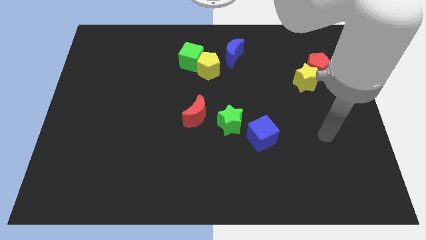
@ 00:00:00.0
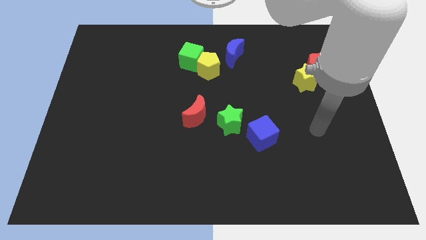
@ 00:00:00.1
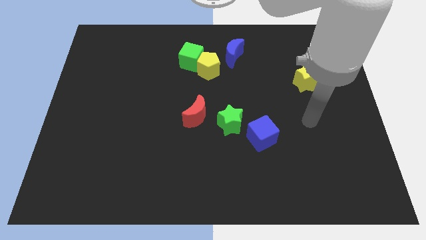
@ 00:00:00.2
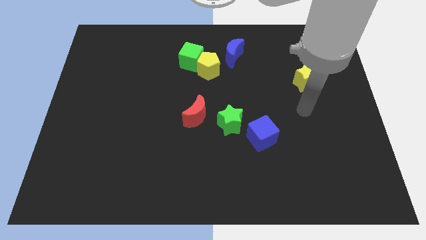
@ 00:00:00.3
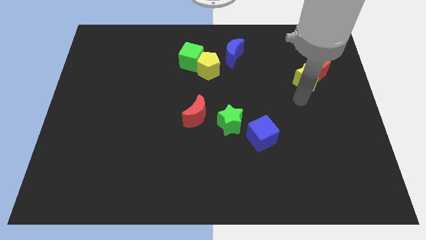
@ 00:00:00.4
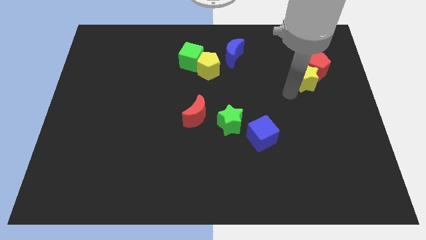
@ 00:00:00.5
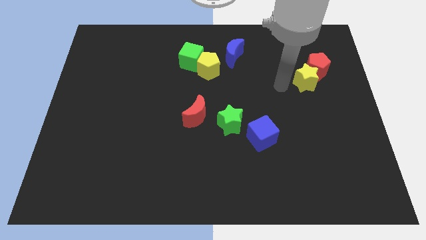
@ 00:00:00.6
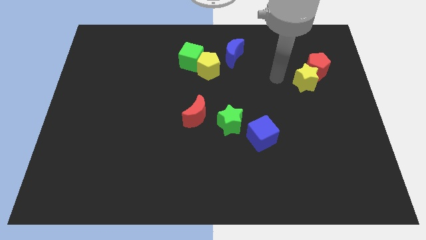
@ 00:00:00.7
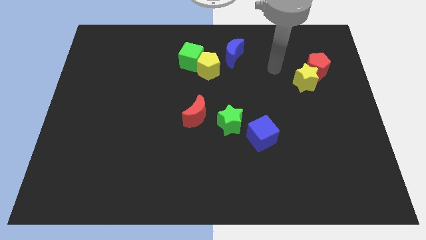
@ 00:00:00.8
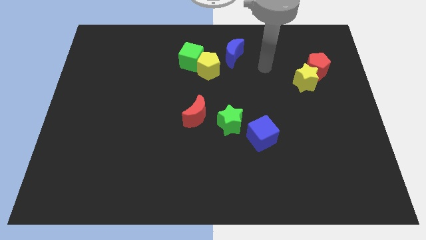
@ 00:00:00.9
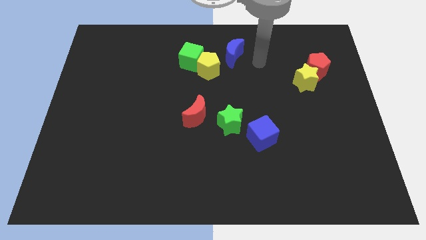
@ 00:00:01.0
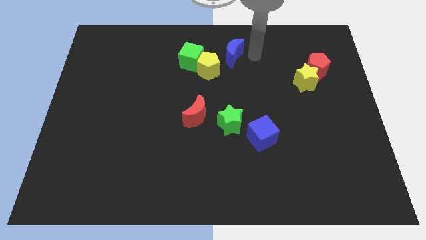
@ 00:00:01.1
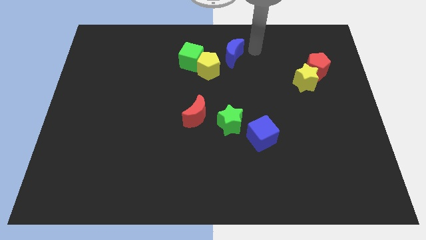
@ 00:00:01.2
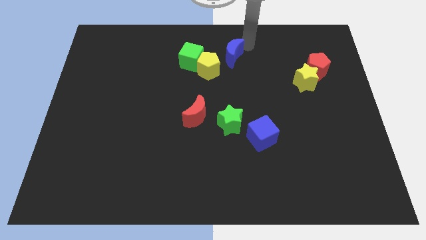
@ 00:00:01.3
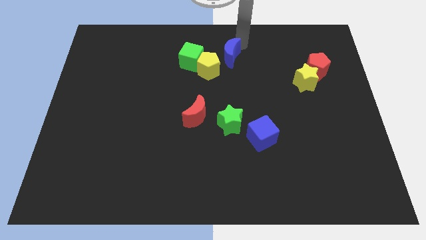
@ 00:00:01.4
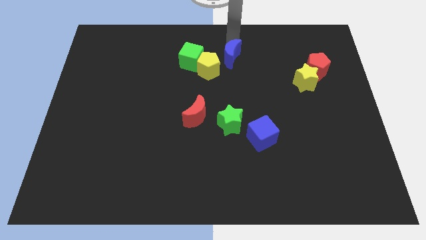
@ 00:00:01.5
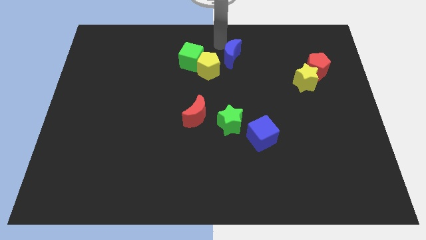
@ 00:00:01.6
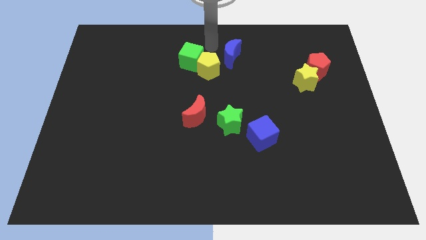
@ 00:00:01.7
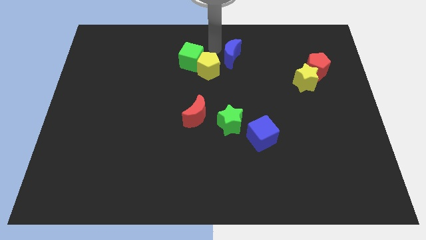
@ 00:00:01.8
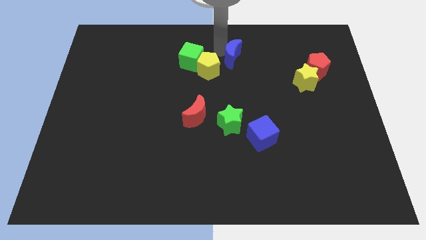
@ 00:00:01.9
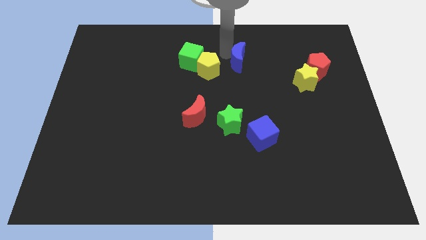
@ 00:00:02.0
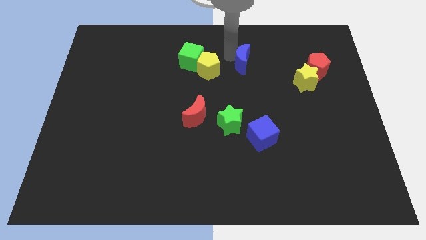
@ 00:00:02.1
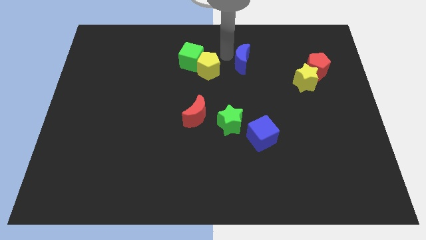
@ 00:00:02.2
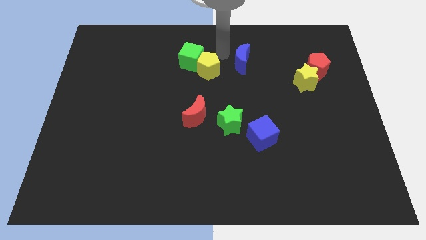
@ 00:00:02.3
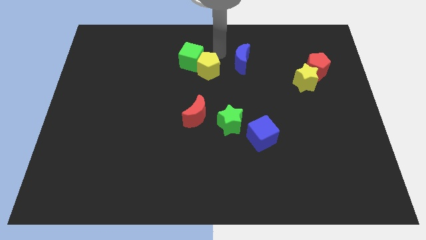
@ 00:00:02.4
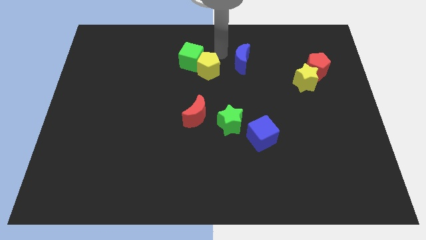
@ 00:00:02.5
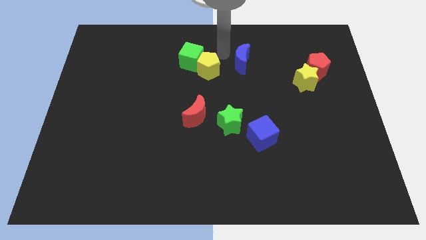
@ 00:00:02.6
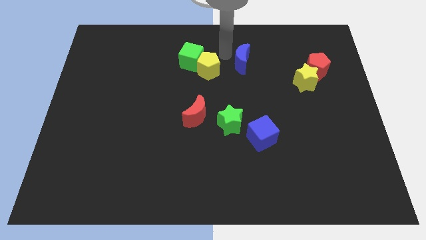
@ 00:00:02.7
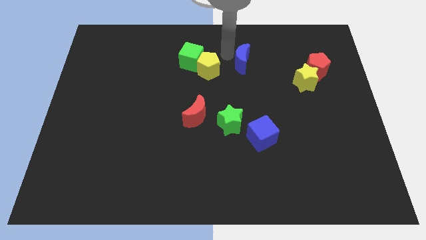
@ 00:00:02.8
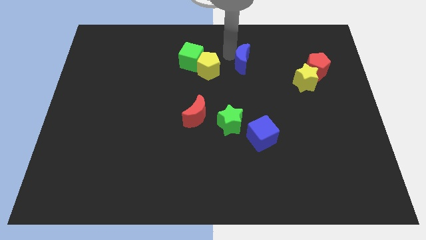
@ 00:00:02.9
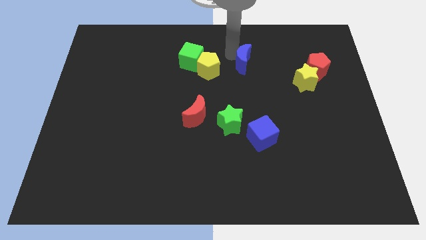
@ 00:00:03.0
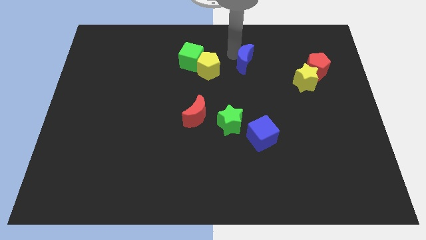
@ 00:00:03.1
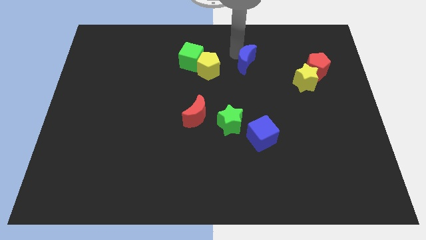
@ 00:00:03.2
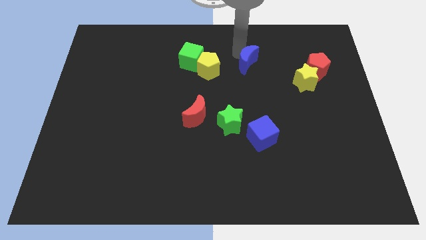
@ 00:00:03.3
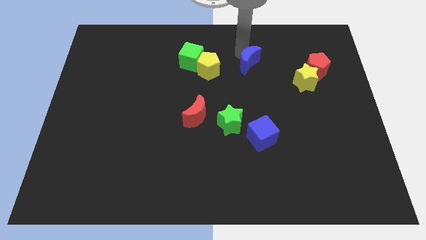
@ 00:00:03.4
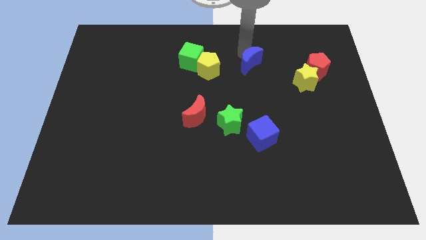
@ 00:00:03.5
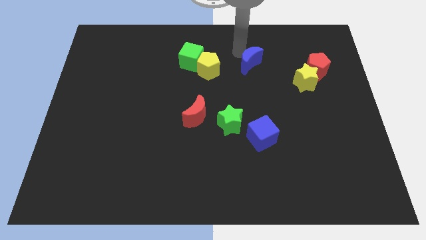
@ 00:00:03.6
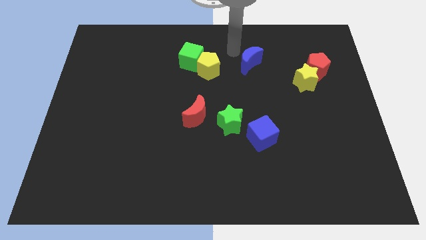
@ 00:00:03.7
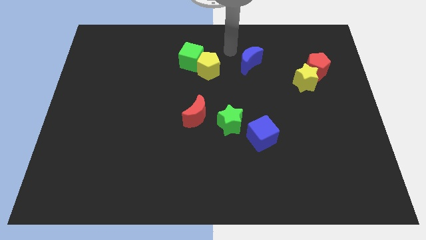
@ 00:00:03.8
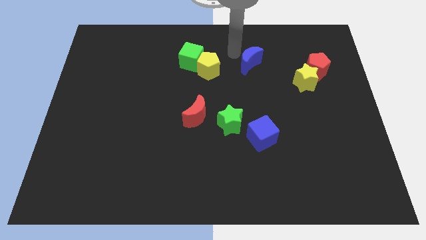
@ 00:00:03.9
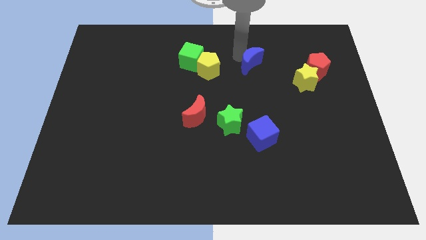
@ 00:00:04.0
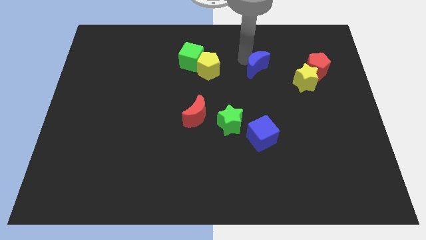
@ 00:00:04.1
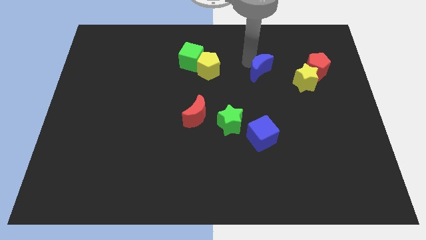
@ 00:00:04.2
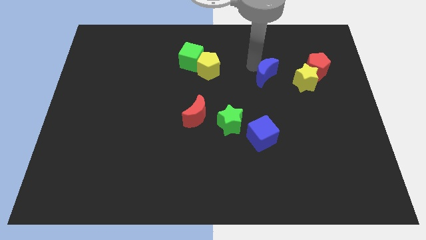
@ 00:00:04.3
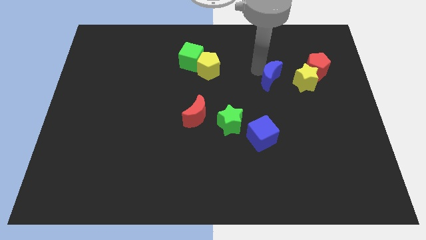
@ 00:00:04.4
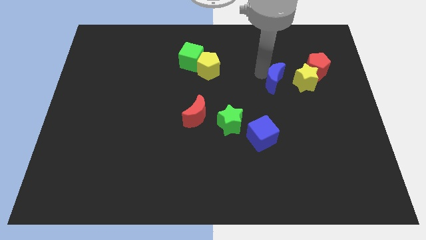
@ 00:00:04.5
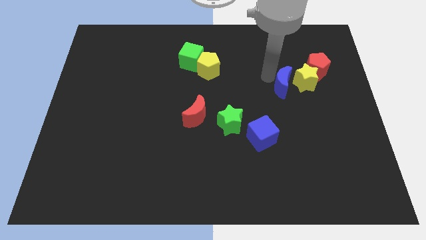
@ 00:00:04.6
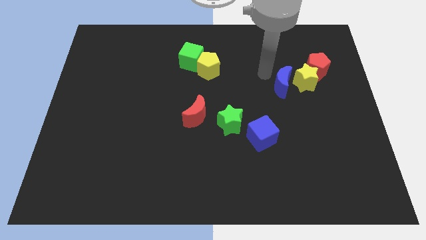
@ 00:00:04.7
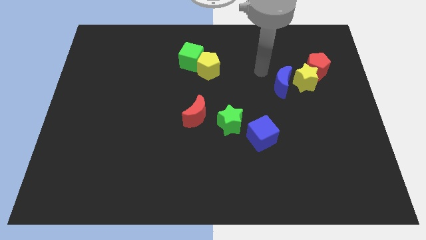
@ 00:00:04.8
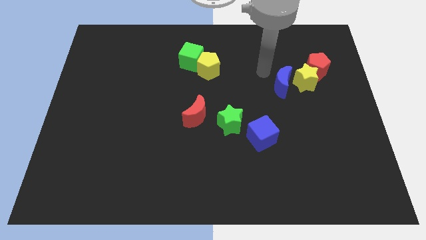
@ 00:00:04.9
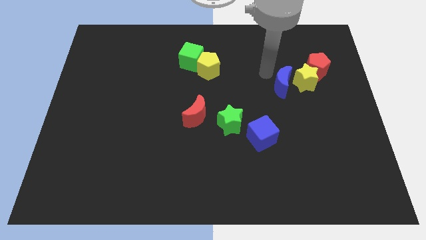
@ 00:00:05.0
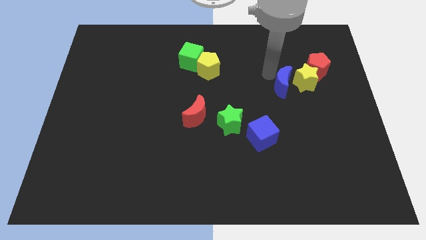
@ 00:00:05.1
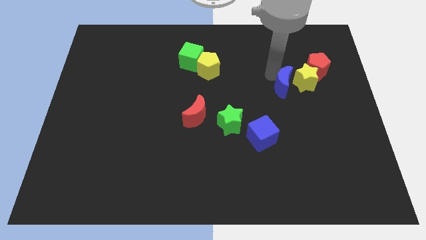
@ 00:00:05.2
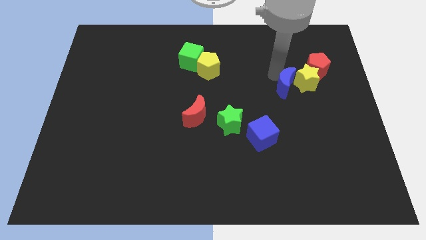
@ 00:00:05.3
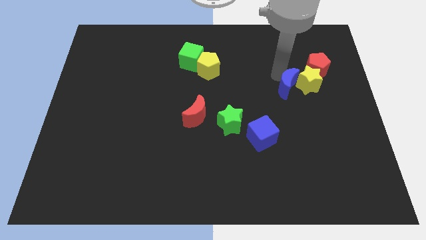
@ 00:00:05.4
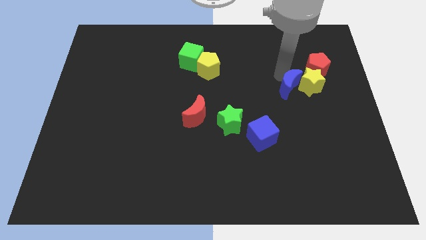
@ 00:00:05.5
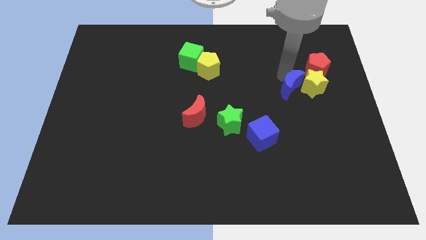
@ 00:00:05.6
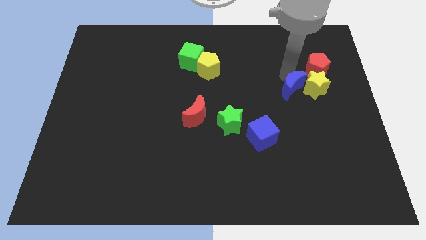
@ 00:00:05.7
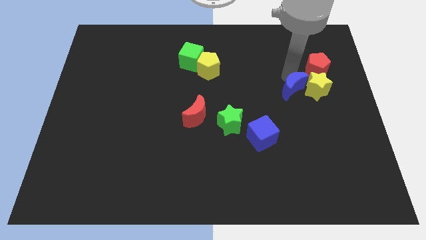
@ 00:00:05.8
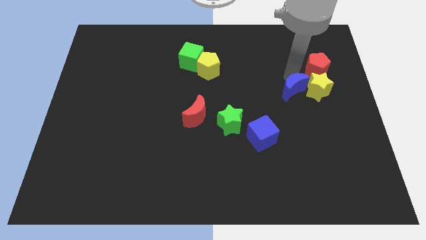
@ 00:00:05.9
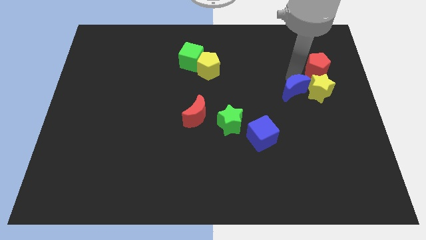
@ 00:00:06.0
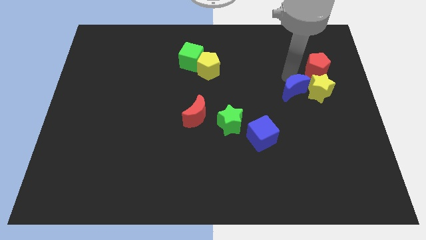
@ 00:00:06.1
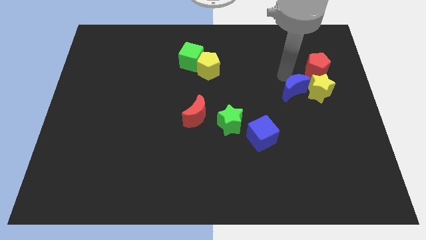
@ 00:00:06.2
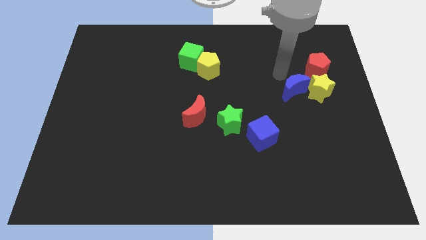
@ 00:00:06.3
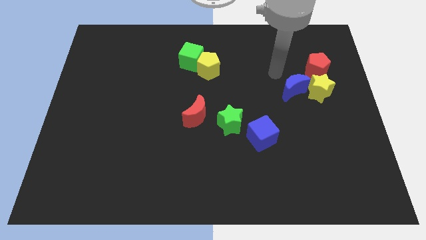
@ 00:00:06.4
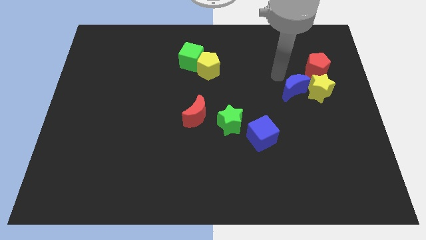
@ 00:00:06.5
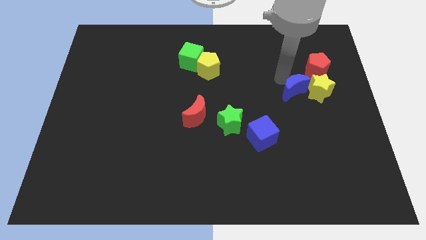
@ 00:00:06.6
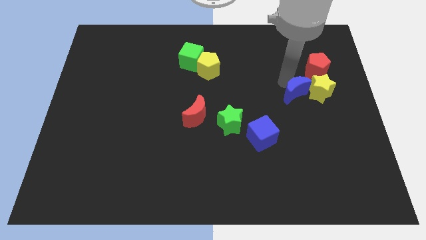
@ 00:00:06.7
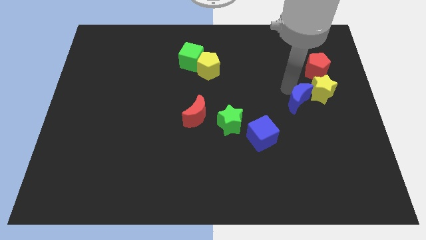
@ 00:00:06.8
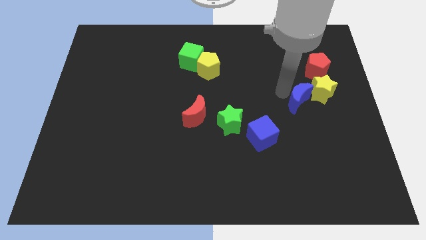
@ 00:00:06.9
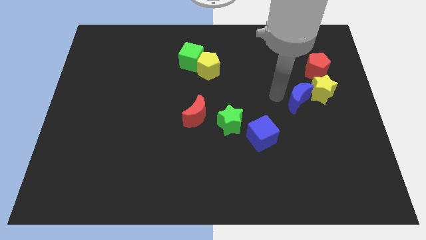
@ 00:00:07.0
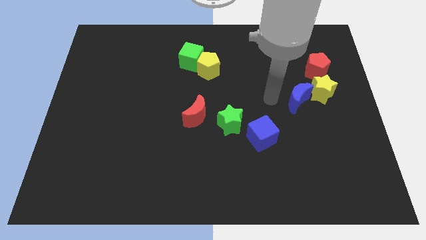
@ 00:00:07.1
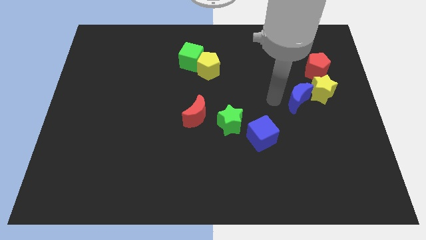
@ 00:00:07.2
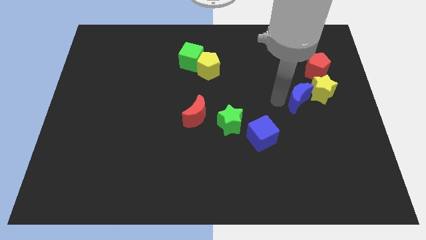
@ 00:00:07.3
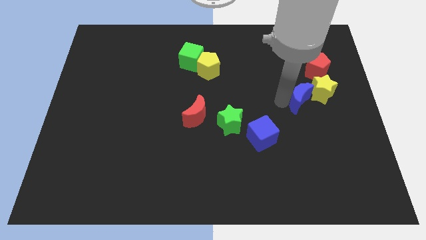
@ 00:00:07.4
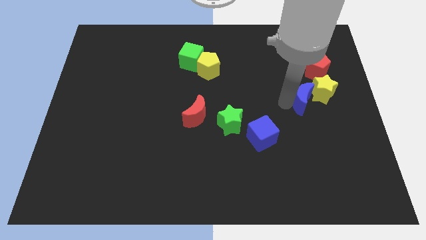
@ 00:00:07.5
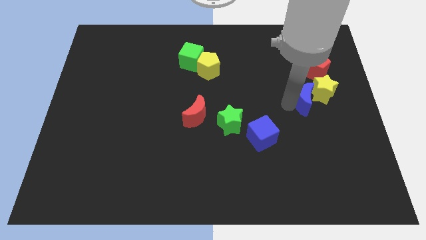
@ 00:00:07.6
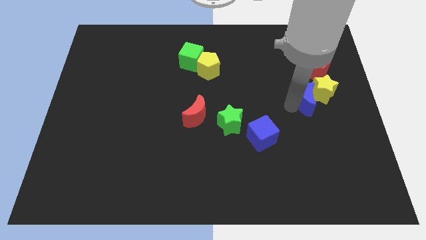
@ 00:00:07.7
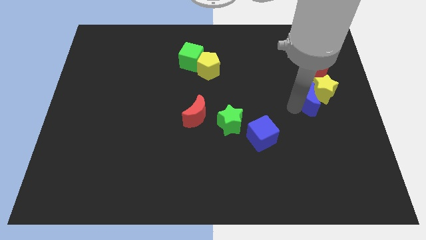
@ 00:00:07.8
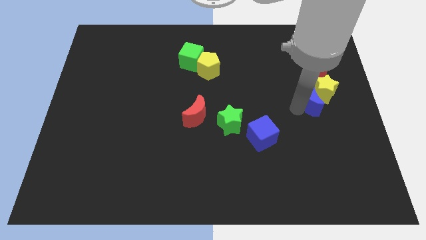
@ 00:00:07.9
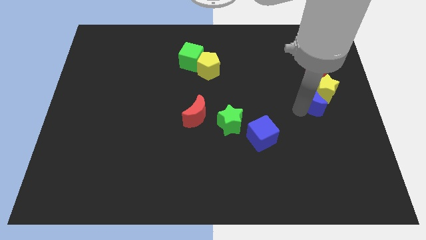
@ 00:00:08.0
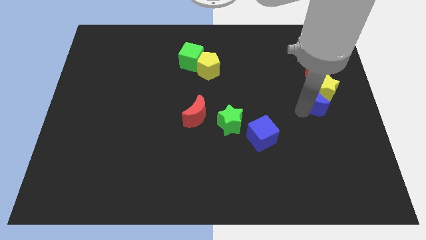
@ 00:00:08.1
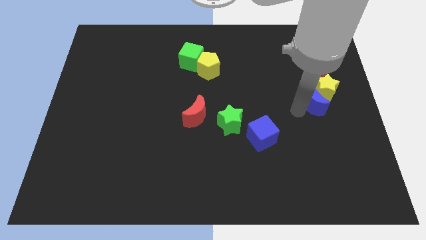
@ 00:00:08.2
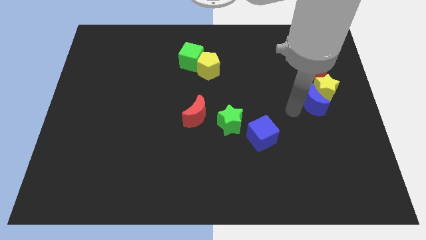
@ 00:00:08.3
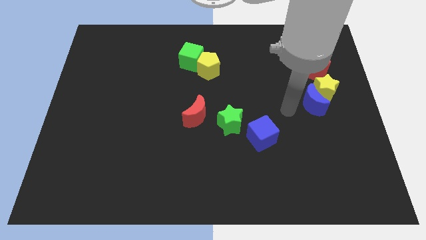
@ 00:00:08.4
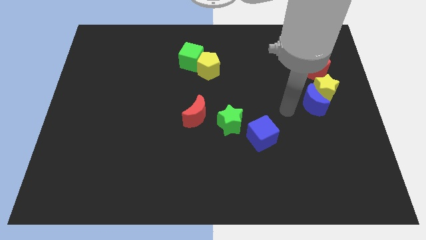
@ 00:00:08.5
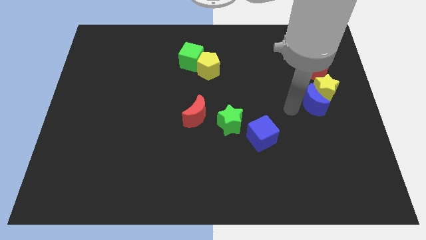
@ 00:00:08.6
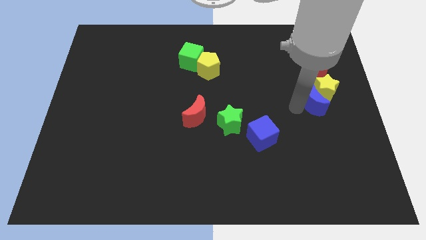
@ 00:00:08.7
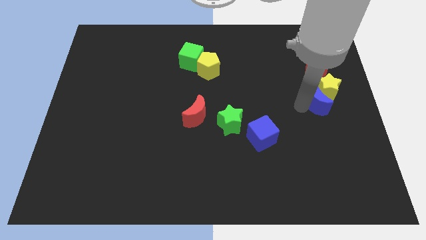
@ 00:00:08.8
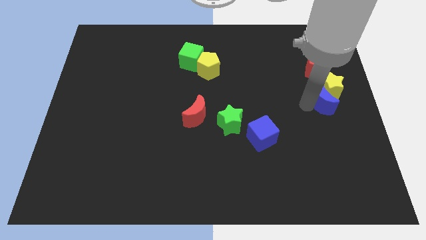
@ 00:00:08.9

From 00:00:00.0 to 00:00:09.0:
put the blue moon to the center right
